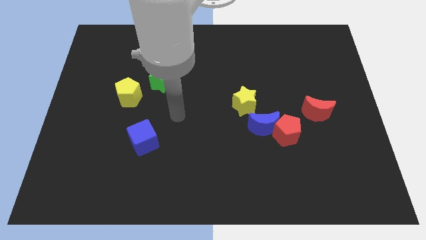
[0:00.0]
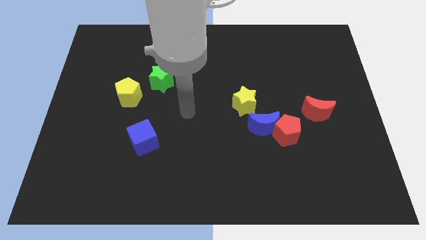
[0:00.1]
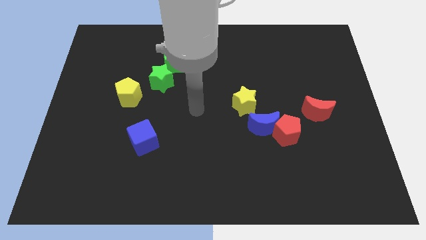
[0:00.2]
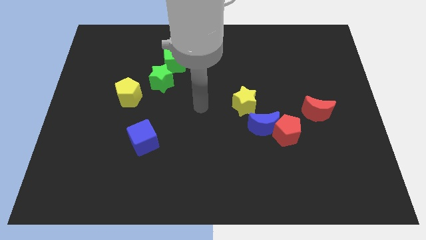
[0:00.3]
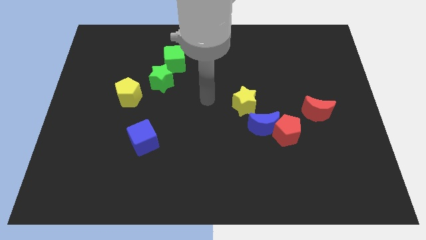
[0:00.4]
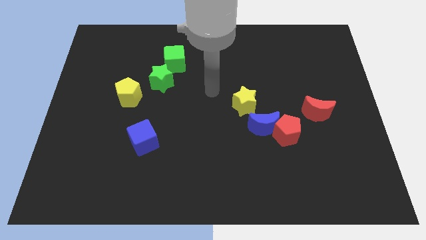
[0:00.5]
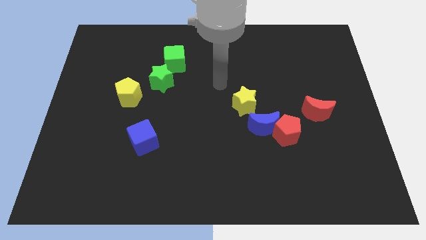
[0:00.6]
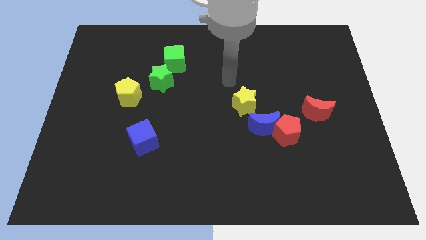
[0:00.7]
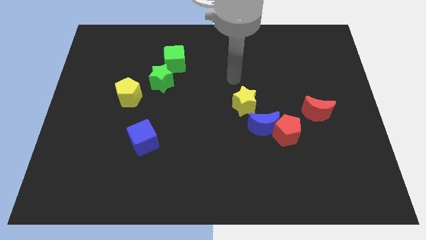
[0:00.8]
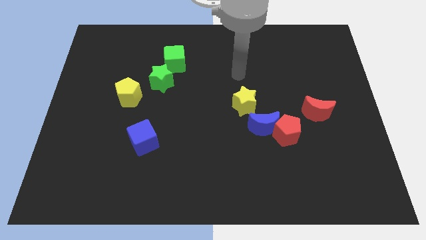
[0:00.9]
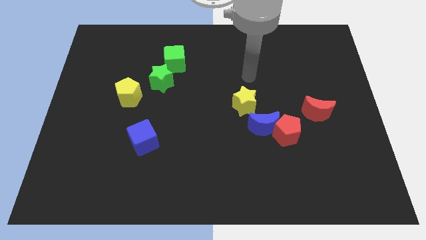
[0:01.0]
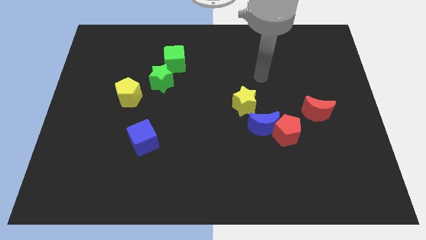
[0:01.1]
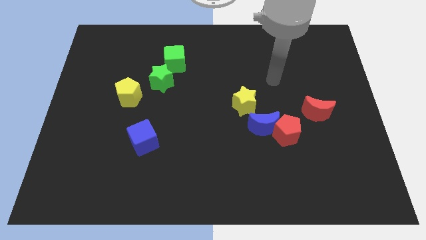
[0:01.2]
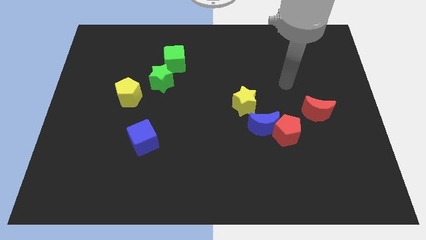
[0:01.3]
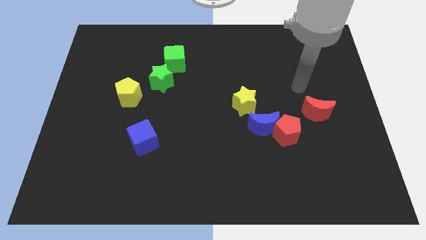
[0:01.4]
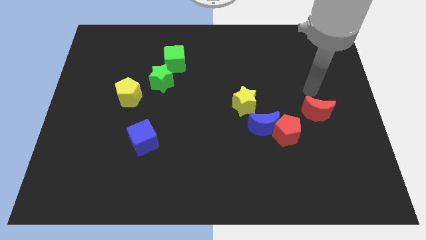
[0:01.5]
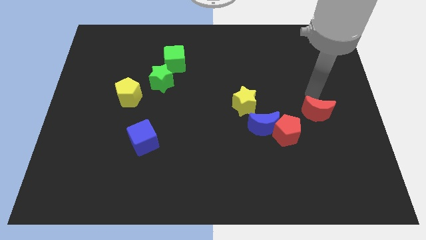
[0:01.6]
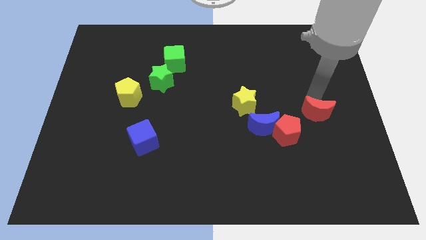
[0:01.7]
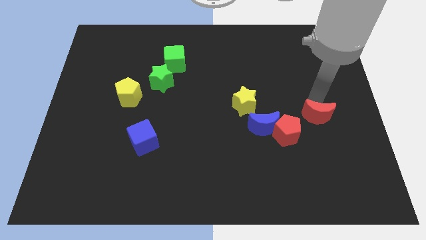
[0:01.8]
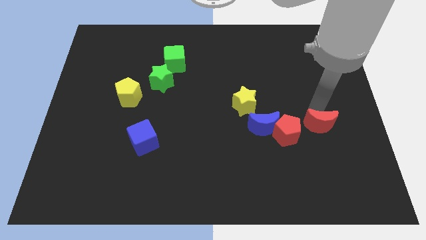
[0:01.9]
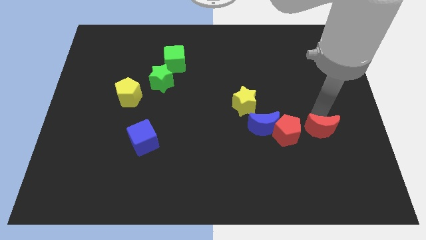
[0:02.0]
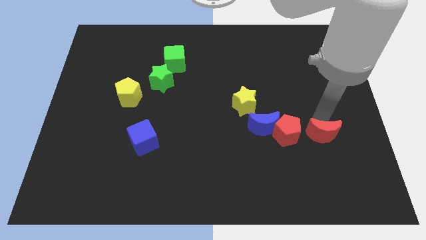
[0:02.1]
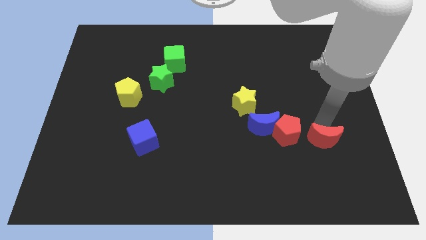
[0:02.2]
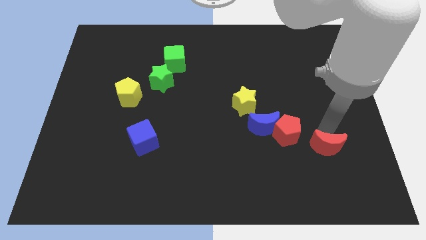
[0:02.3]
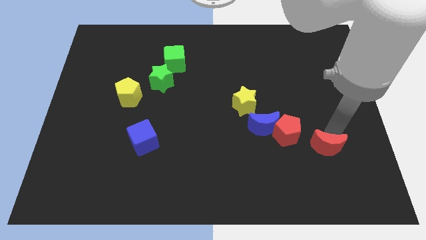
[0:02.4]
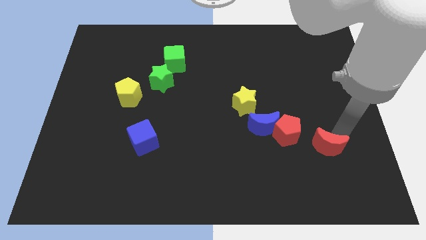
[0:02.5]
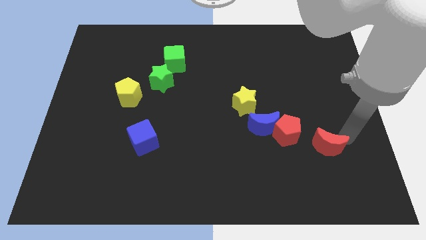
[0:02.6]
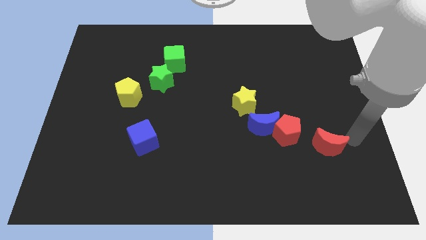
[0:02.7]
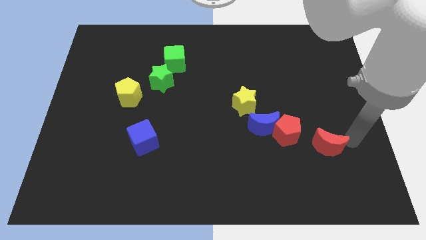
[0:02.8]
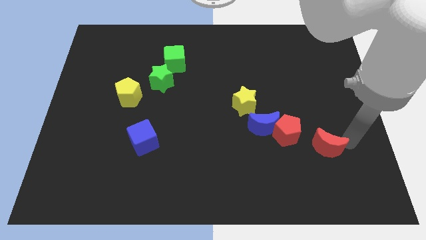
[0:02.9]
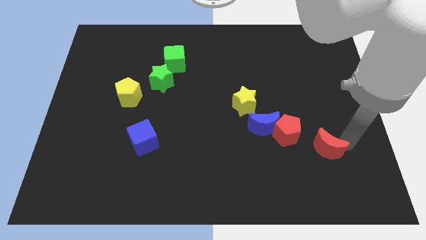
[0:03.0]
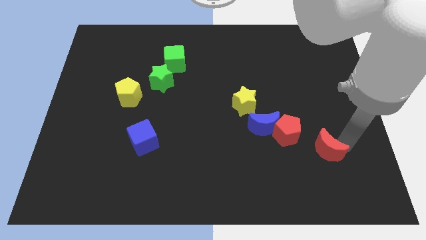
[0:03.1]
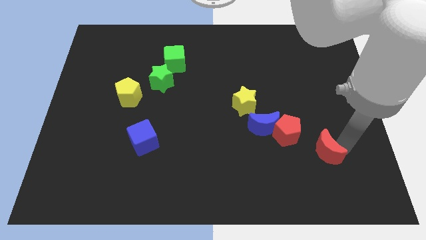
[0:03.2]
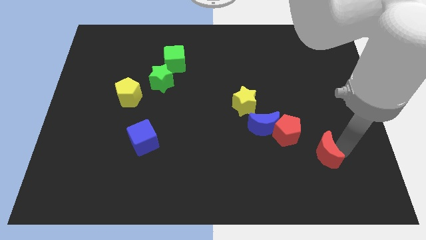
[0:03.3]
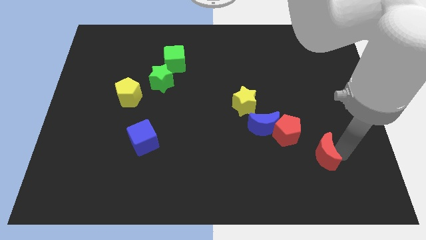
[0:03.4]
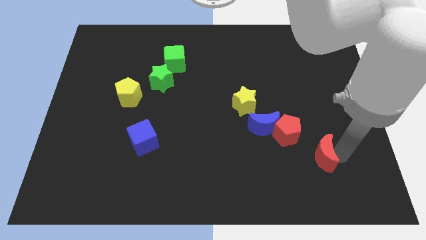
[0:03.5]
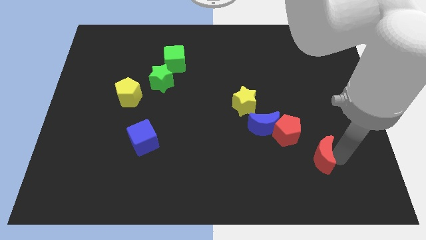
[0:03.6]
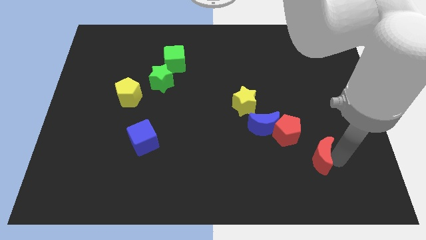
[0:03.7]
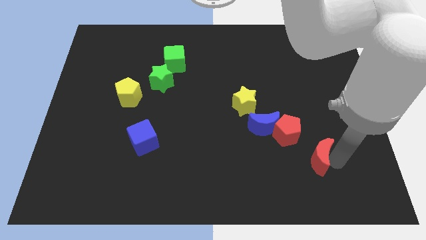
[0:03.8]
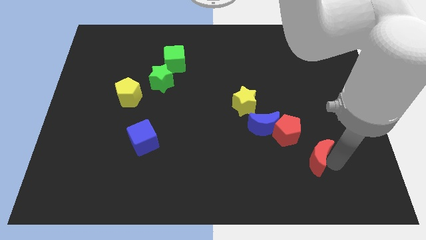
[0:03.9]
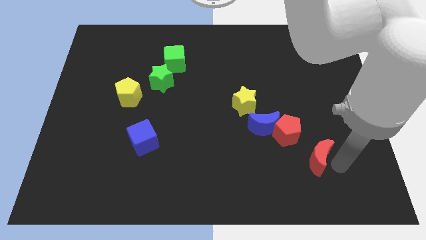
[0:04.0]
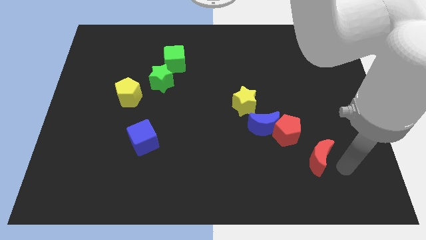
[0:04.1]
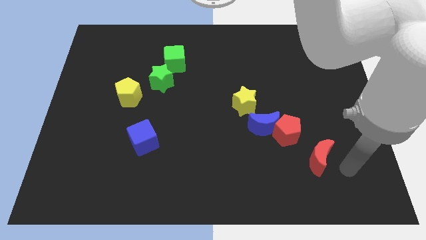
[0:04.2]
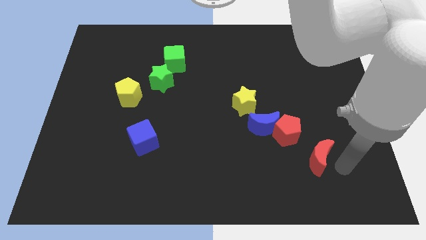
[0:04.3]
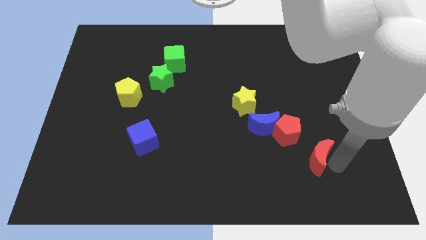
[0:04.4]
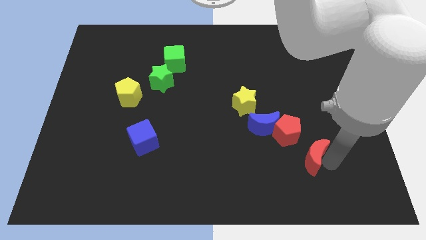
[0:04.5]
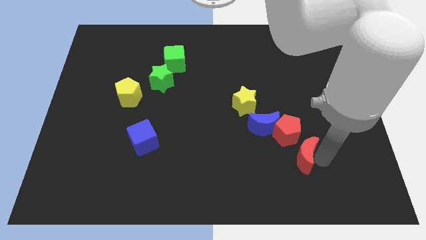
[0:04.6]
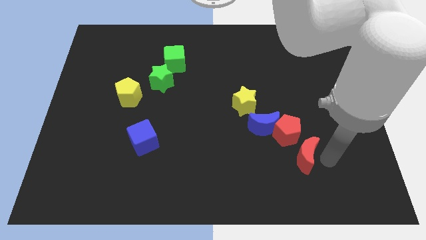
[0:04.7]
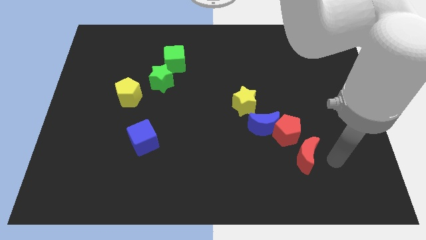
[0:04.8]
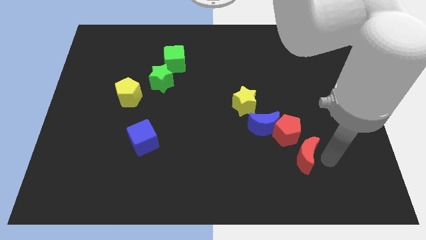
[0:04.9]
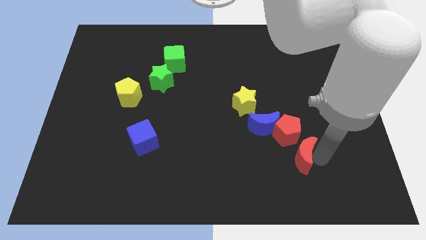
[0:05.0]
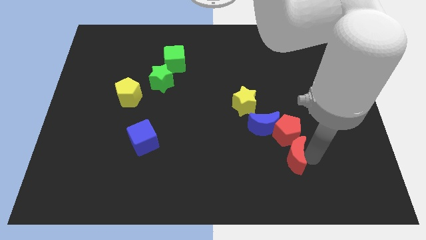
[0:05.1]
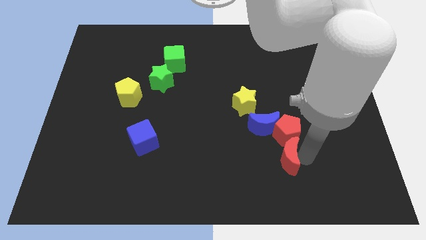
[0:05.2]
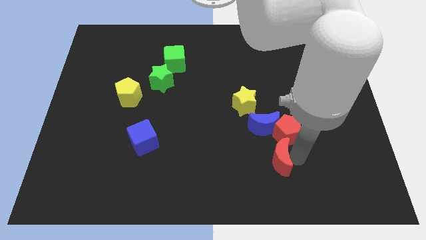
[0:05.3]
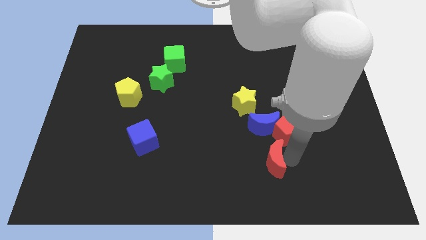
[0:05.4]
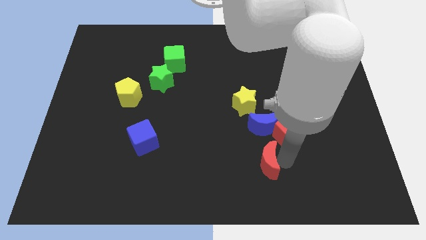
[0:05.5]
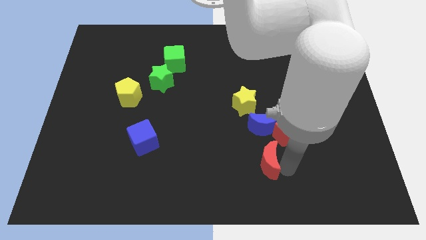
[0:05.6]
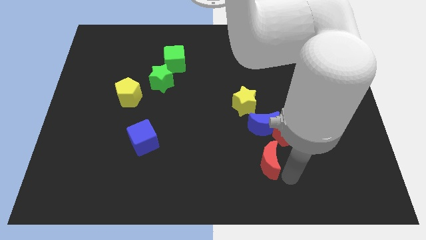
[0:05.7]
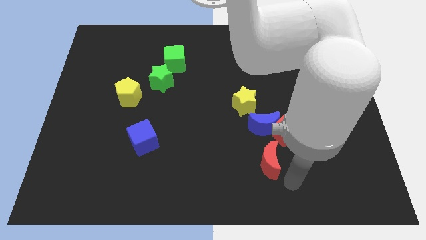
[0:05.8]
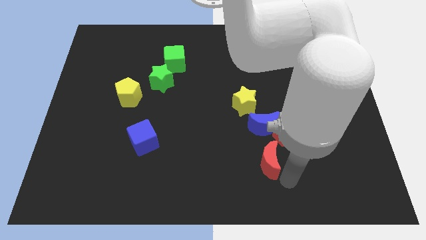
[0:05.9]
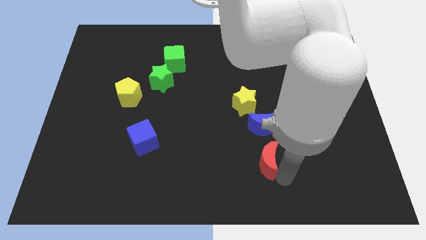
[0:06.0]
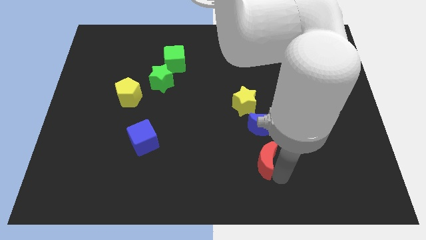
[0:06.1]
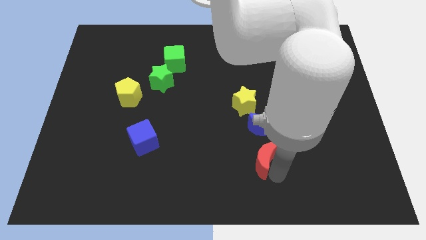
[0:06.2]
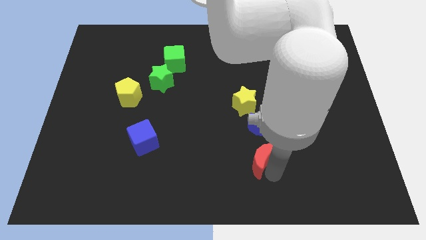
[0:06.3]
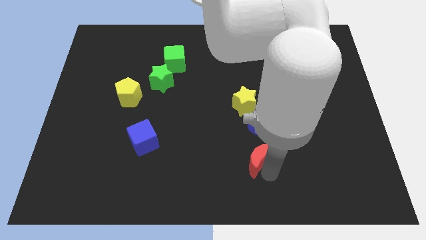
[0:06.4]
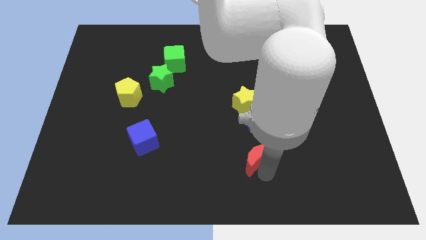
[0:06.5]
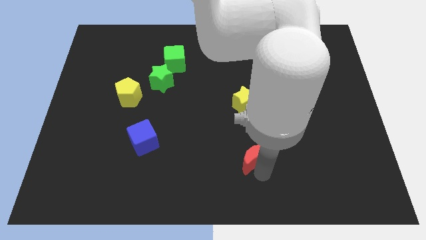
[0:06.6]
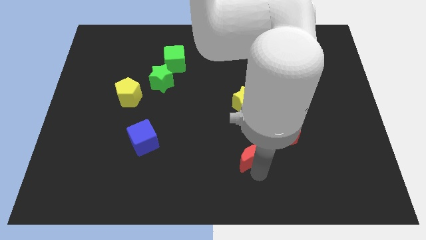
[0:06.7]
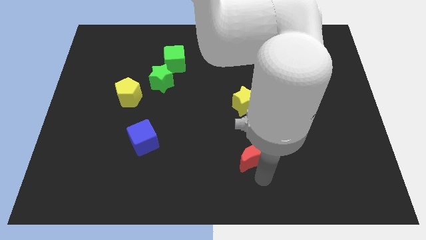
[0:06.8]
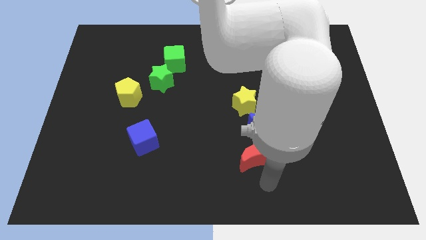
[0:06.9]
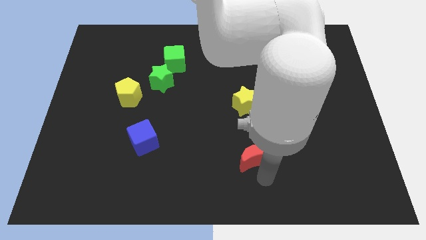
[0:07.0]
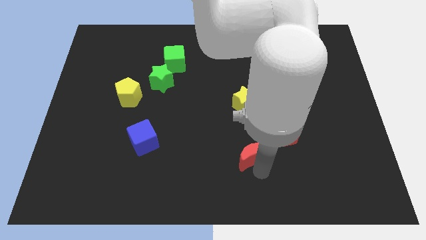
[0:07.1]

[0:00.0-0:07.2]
slightly slide the red moon to the left

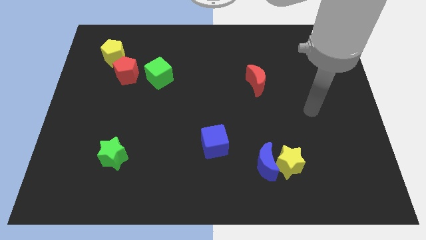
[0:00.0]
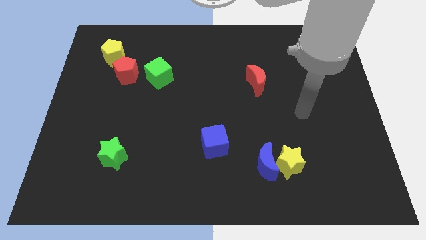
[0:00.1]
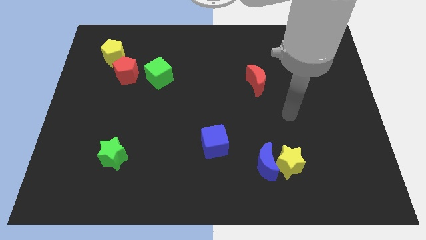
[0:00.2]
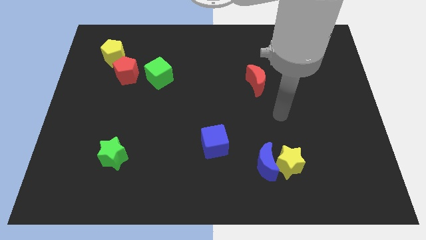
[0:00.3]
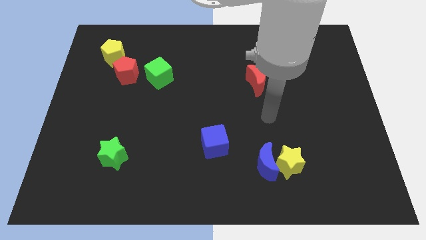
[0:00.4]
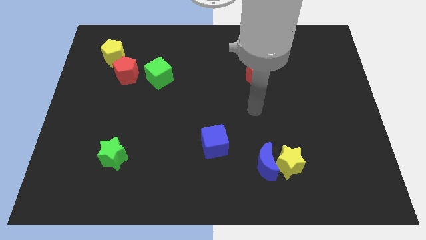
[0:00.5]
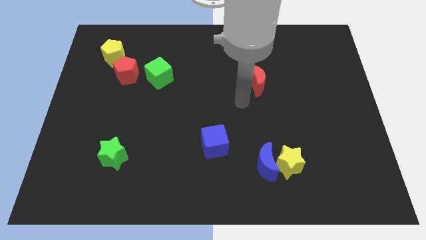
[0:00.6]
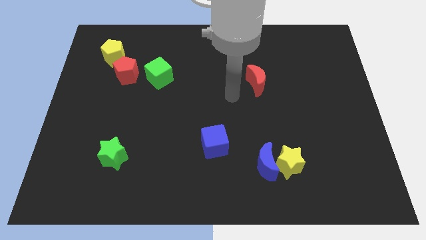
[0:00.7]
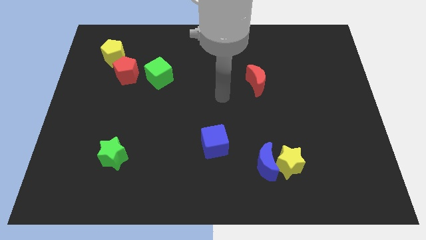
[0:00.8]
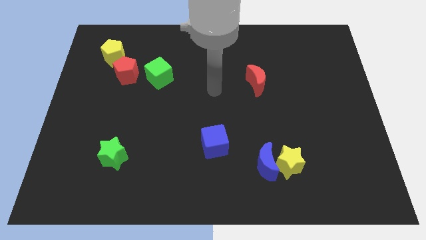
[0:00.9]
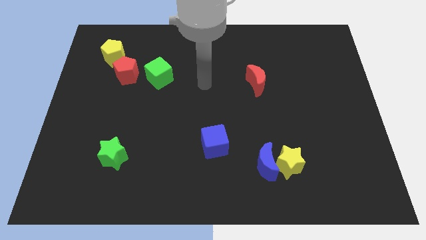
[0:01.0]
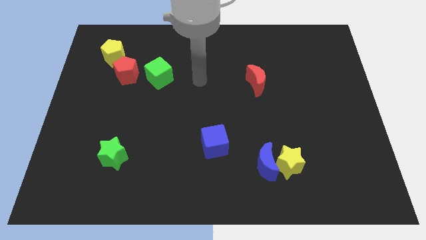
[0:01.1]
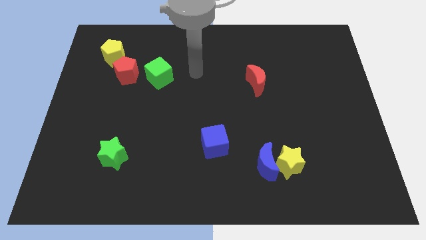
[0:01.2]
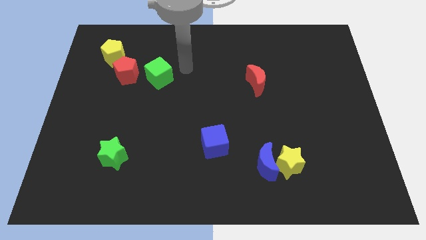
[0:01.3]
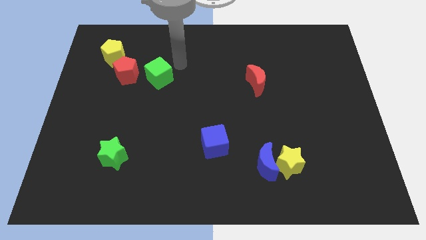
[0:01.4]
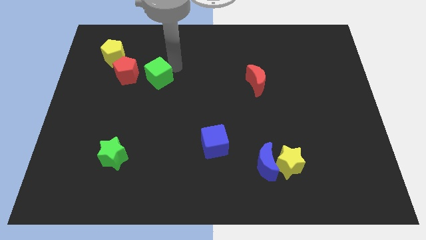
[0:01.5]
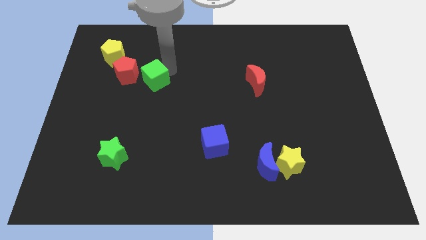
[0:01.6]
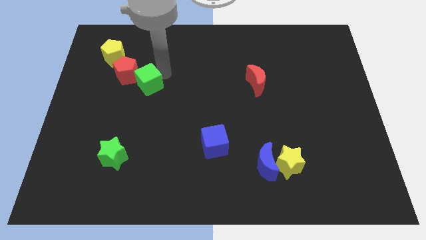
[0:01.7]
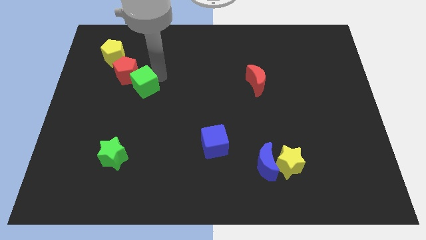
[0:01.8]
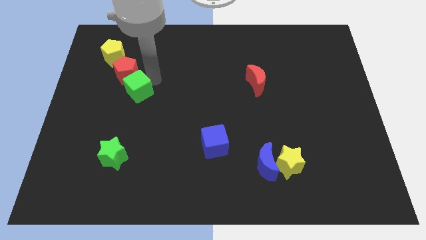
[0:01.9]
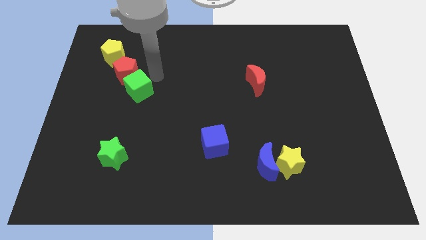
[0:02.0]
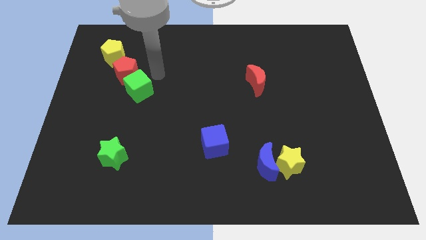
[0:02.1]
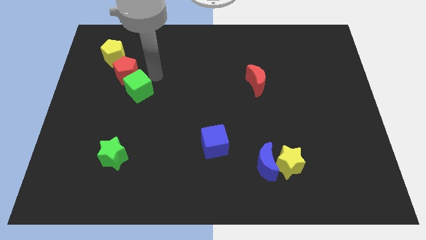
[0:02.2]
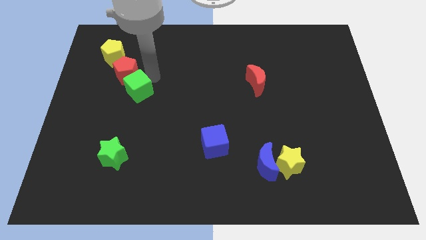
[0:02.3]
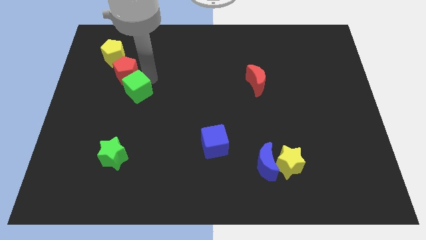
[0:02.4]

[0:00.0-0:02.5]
move the green cube down and left diagonally somewhat
